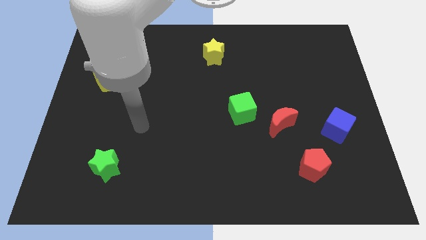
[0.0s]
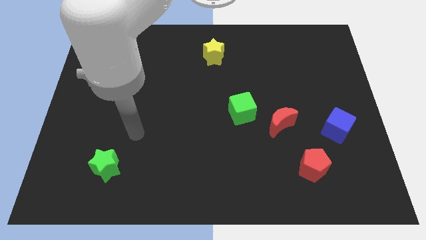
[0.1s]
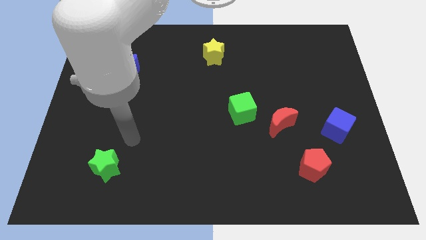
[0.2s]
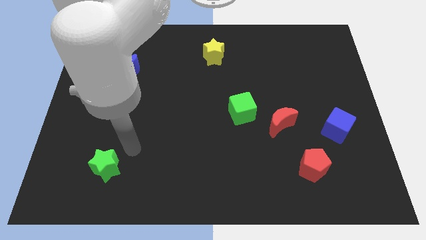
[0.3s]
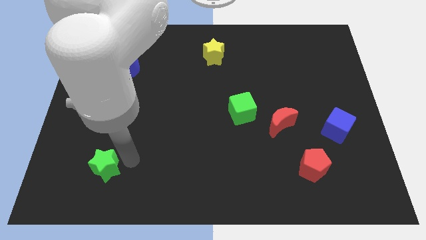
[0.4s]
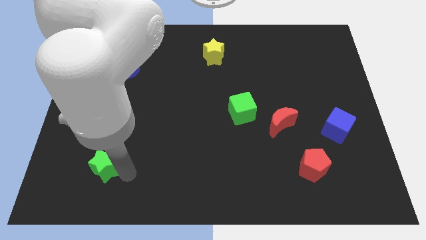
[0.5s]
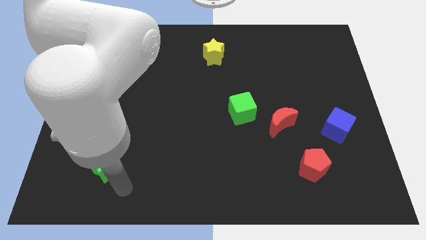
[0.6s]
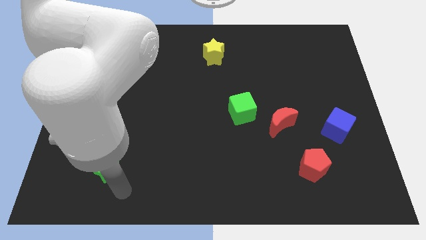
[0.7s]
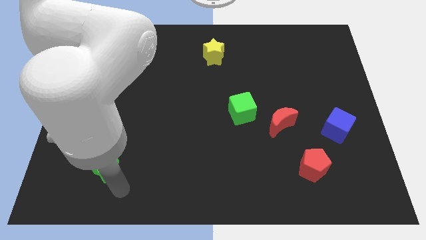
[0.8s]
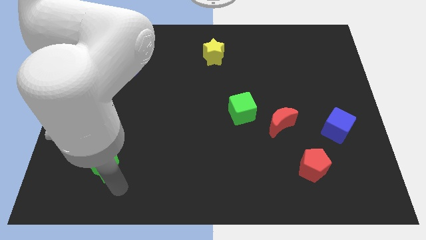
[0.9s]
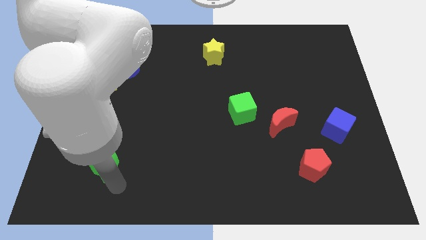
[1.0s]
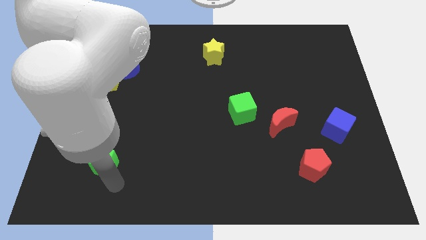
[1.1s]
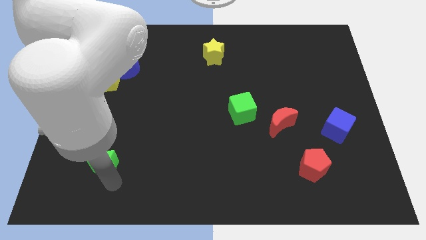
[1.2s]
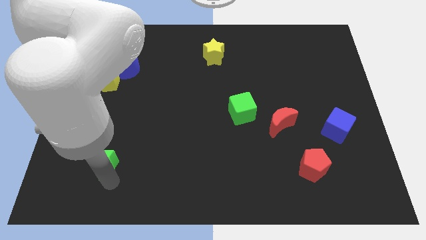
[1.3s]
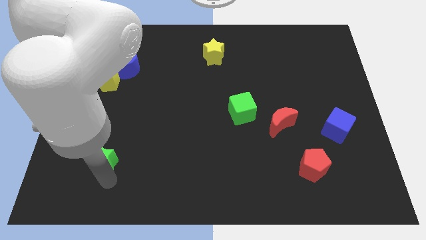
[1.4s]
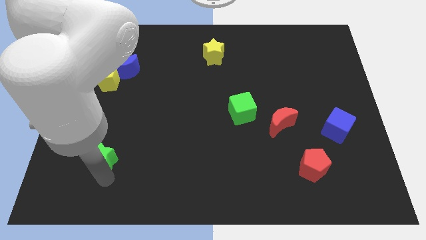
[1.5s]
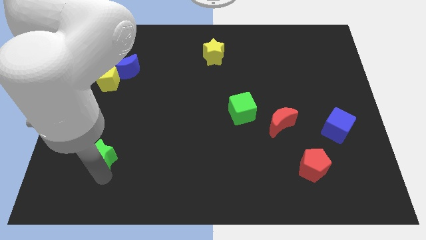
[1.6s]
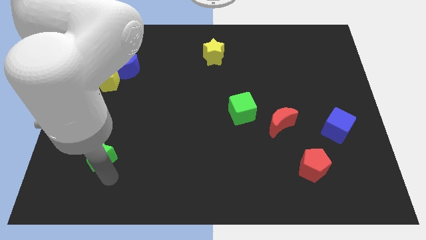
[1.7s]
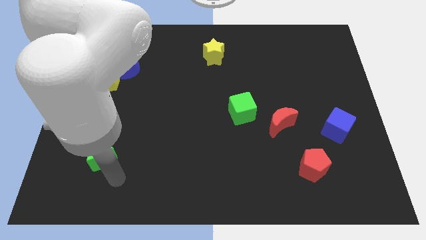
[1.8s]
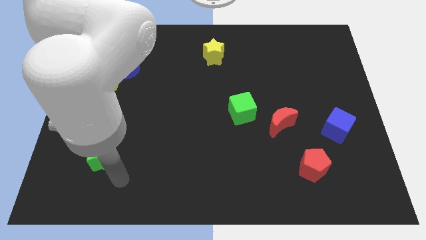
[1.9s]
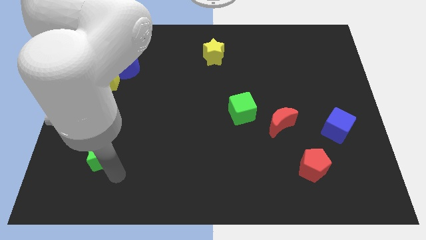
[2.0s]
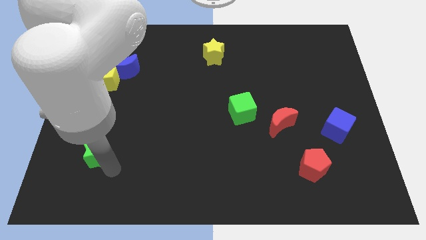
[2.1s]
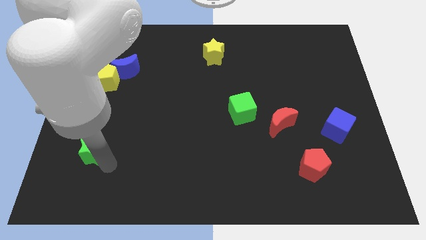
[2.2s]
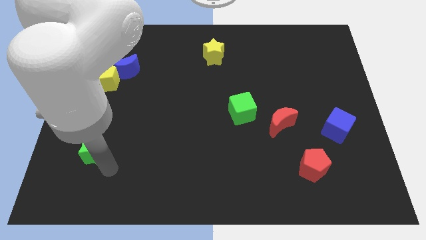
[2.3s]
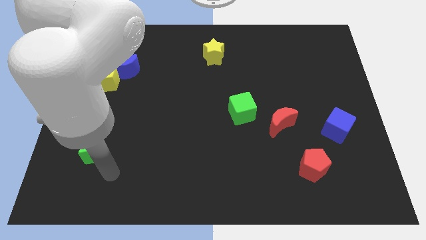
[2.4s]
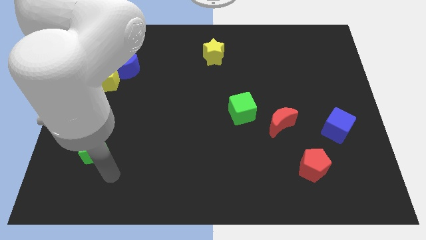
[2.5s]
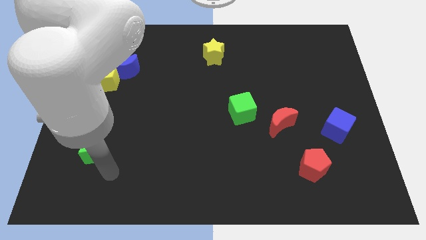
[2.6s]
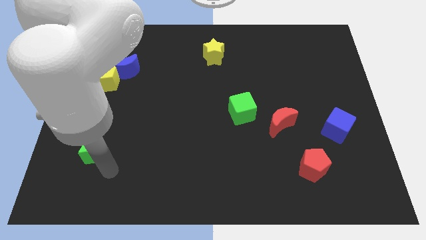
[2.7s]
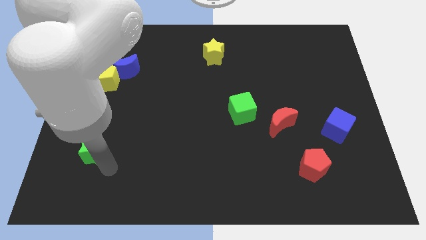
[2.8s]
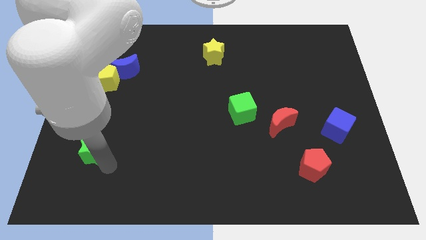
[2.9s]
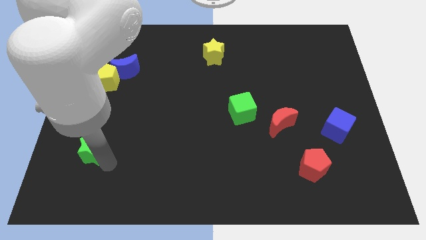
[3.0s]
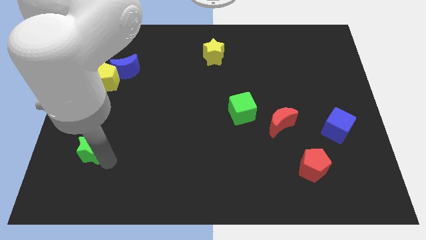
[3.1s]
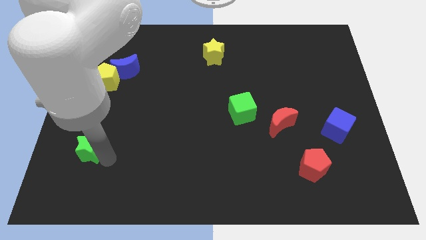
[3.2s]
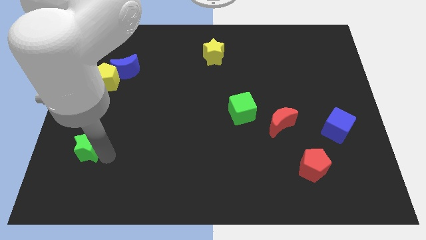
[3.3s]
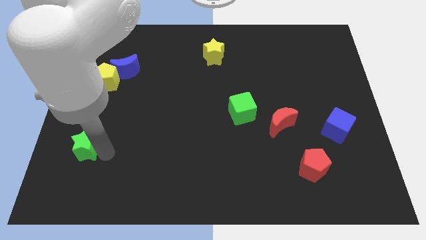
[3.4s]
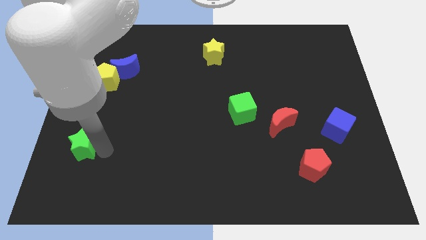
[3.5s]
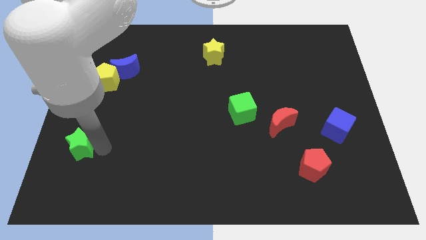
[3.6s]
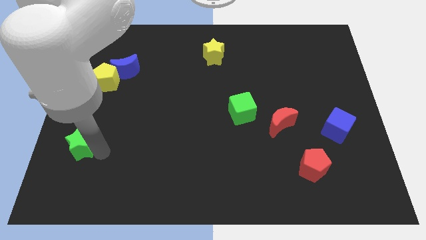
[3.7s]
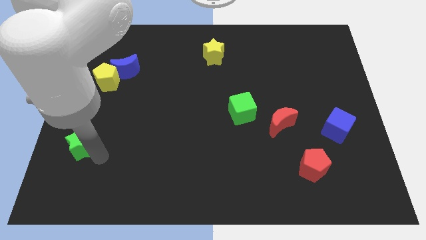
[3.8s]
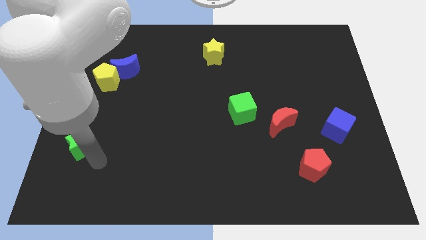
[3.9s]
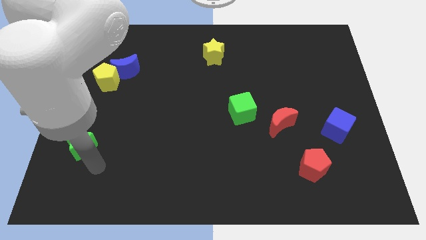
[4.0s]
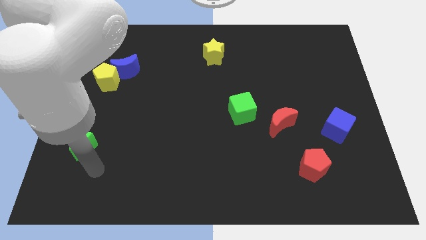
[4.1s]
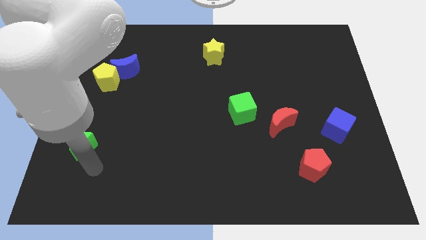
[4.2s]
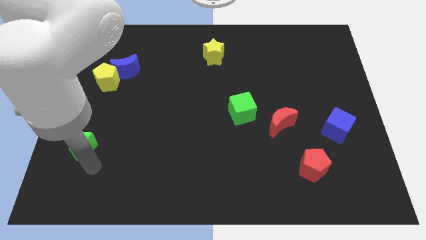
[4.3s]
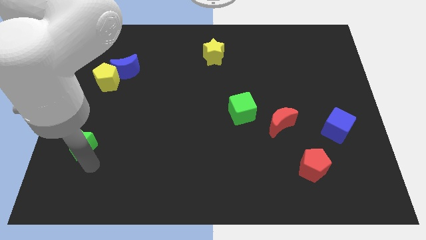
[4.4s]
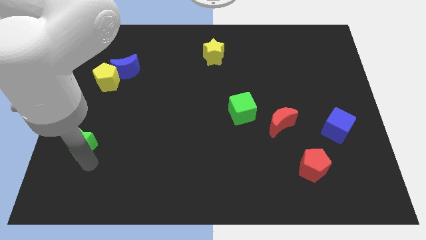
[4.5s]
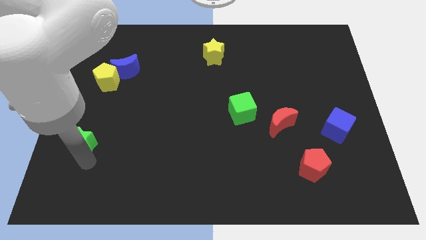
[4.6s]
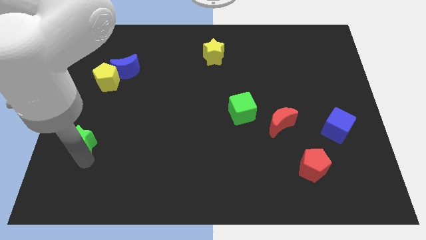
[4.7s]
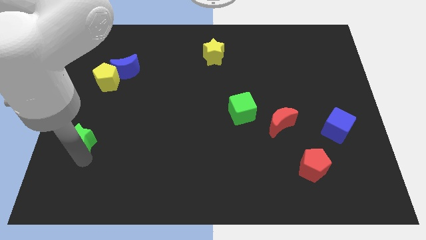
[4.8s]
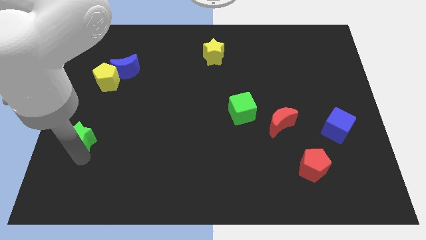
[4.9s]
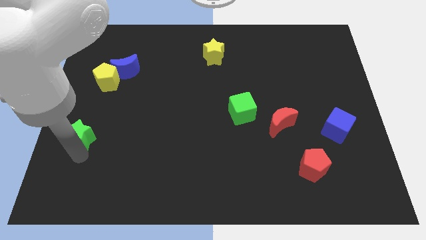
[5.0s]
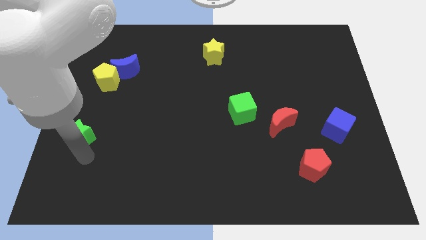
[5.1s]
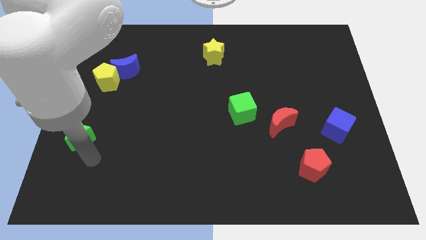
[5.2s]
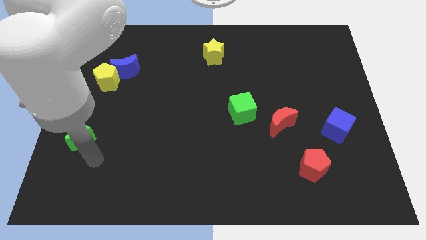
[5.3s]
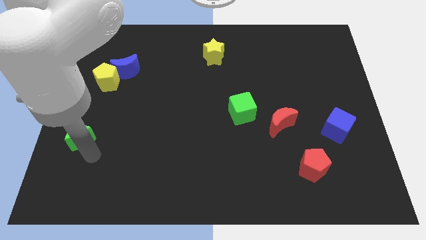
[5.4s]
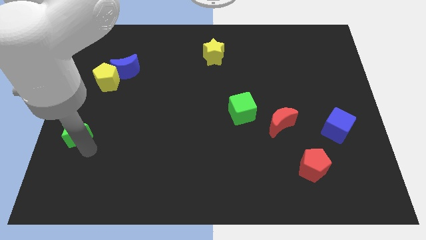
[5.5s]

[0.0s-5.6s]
push the green star to the left side
